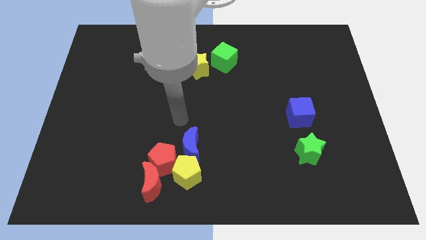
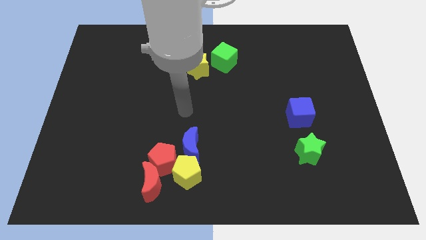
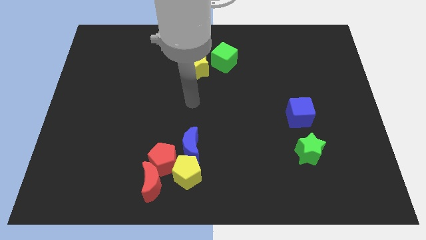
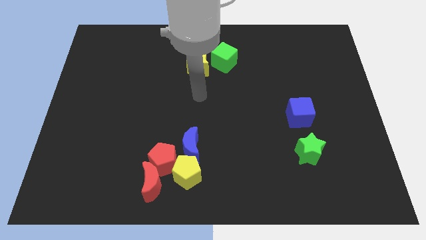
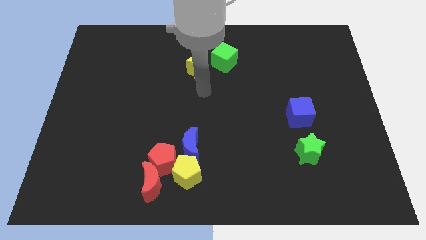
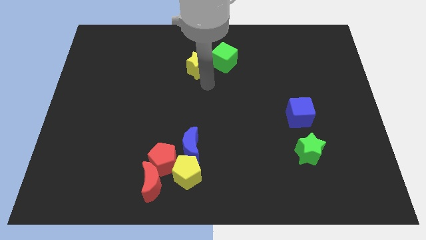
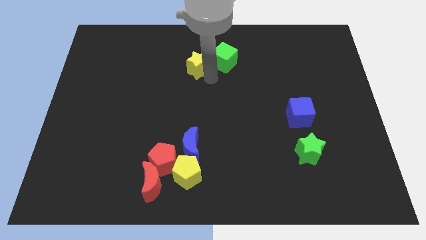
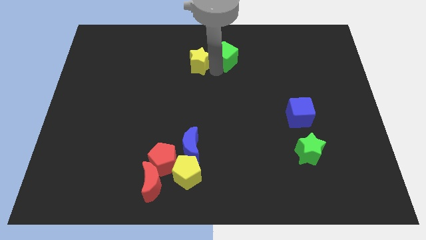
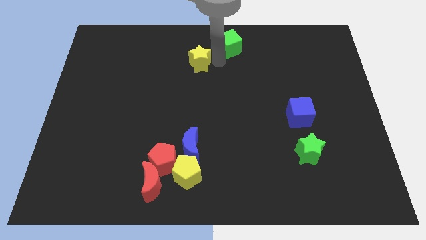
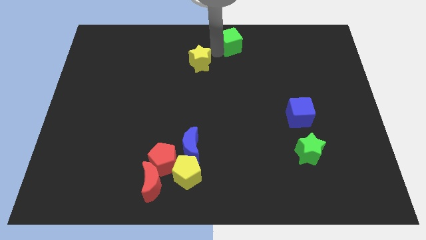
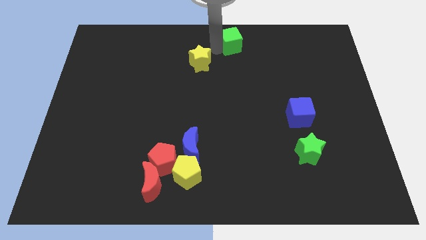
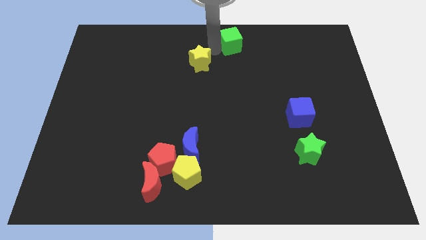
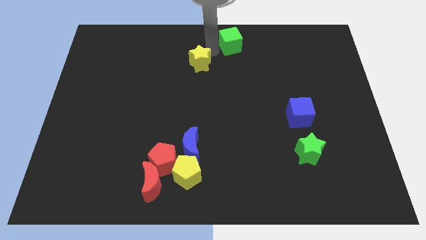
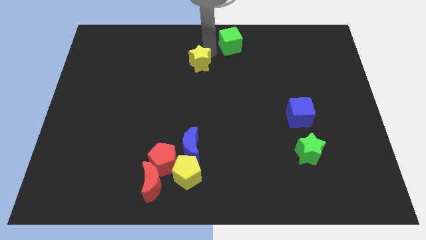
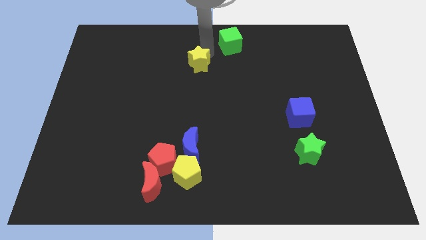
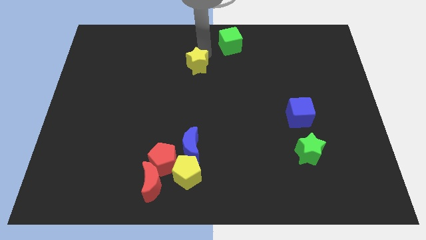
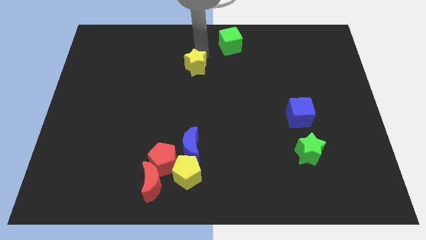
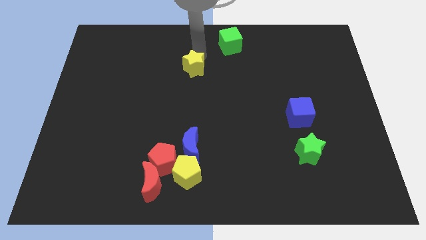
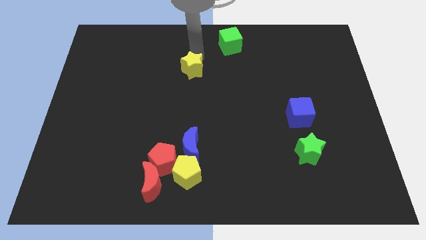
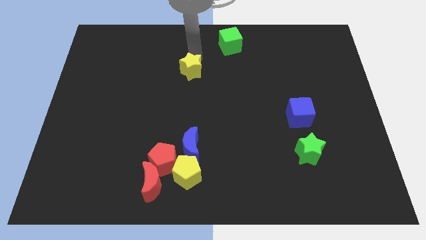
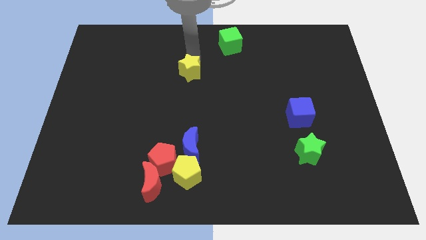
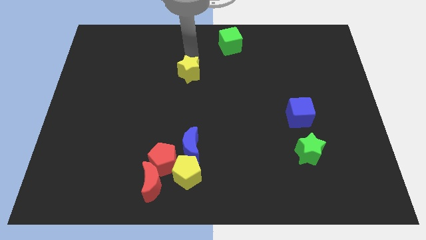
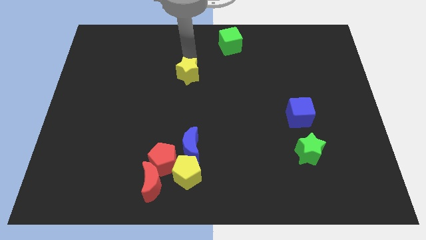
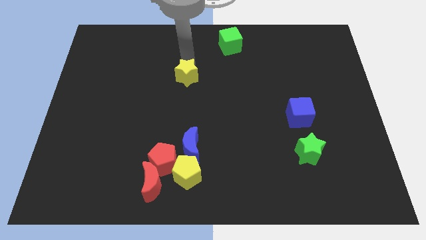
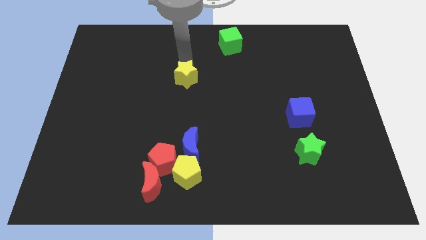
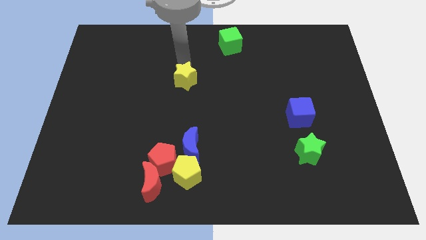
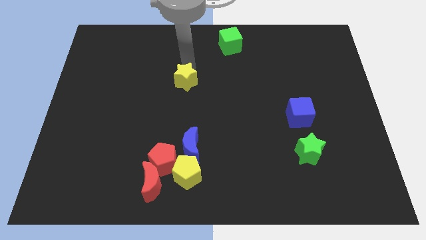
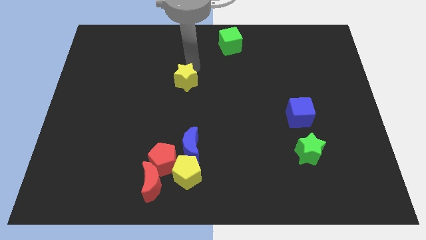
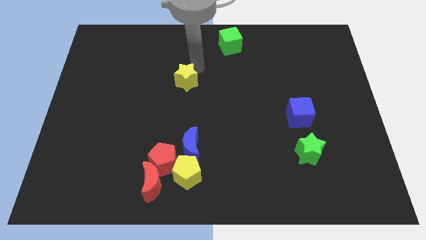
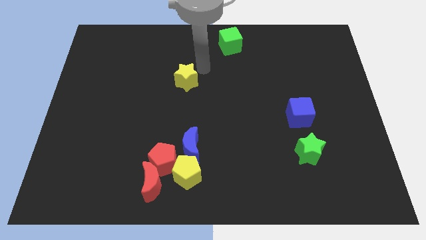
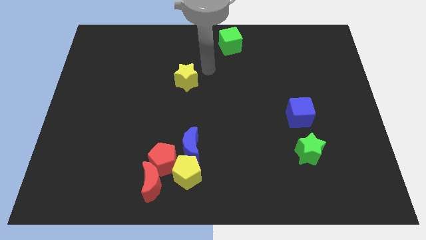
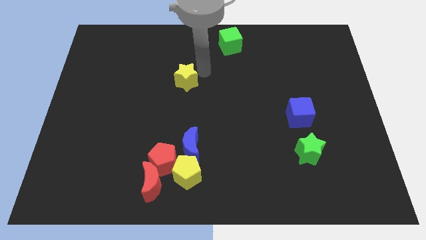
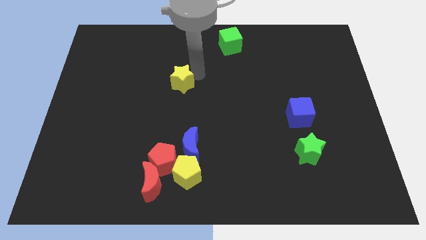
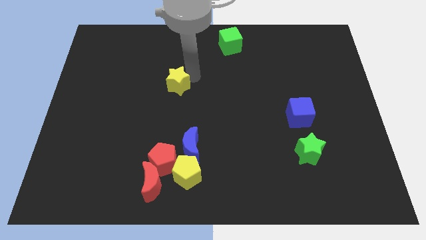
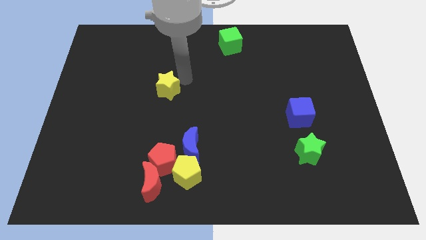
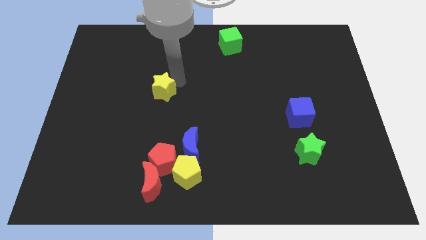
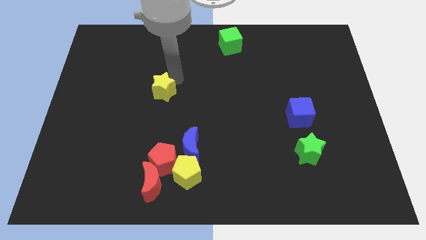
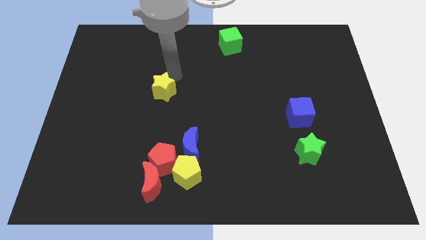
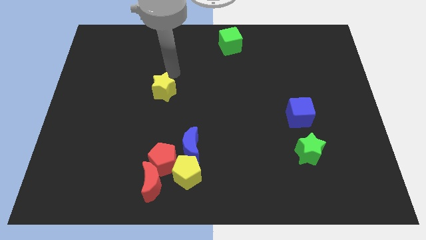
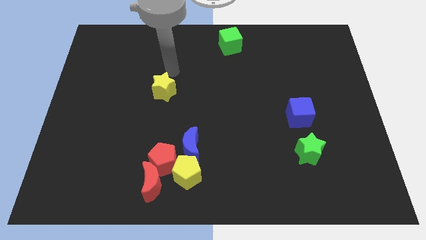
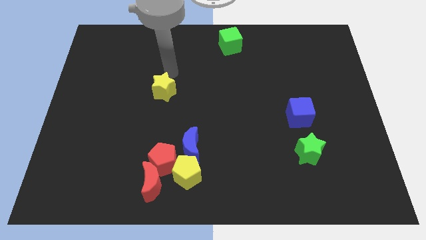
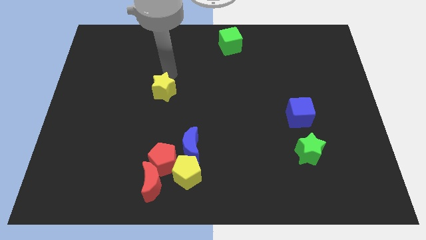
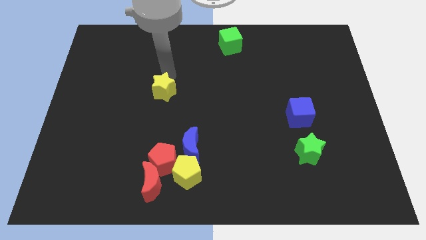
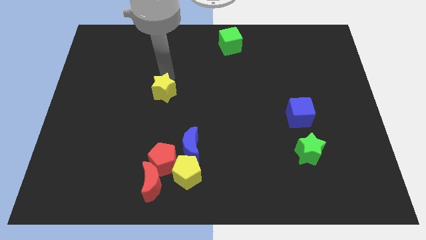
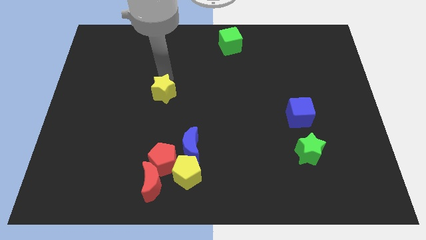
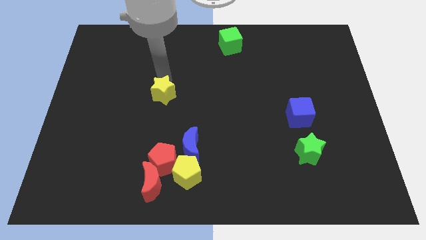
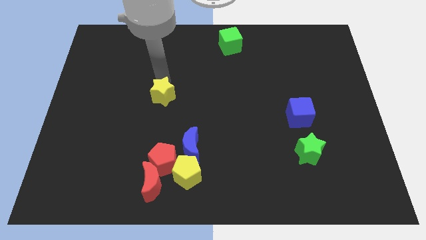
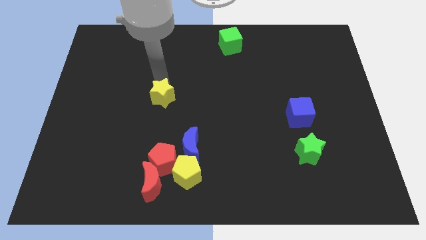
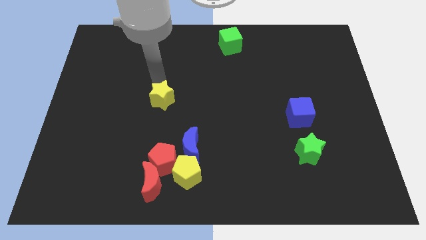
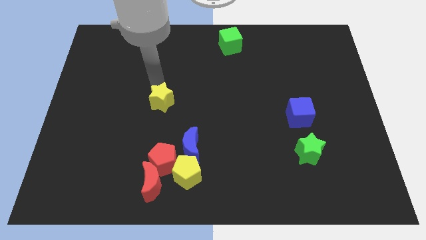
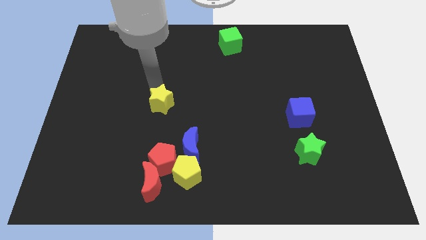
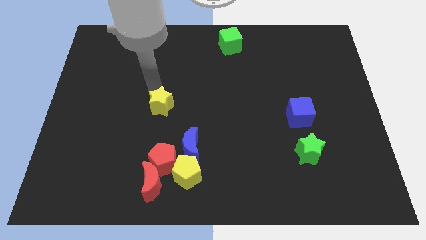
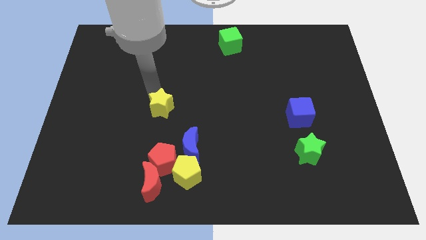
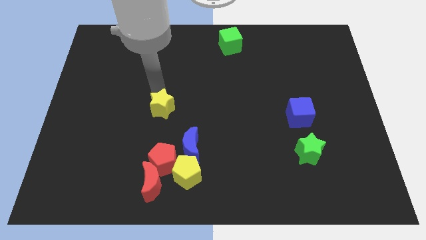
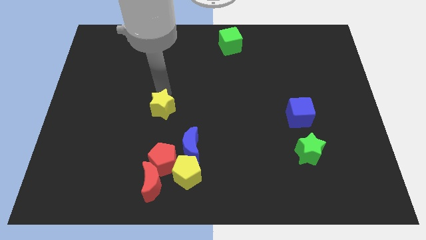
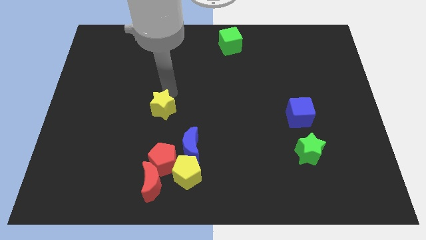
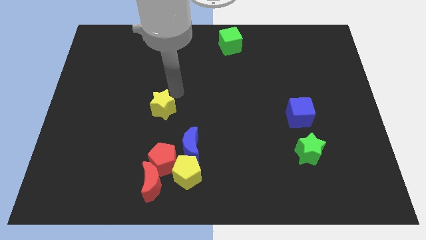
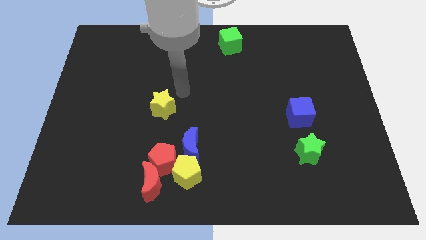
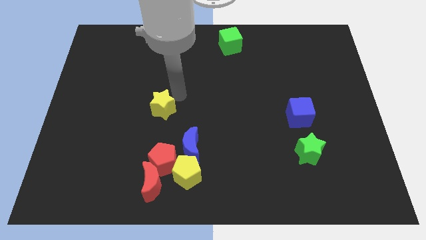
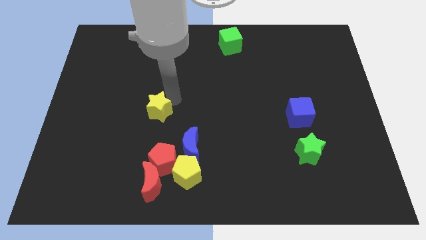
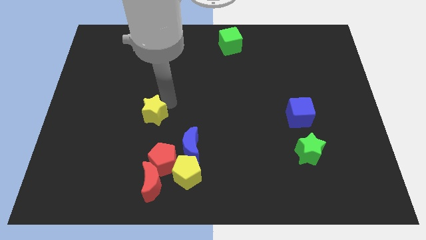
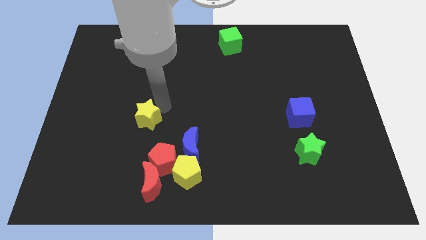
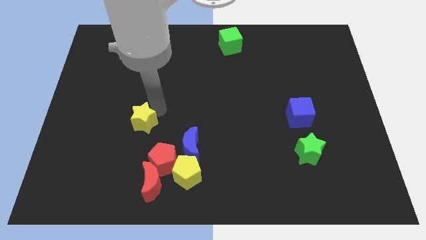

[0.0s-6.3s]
move the yellow star diagonally downwards and to the left

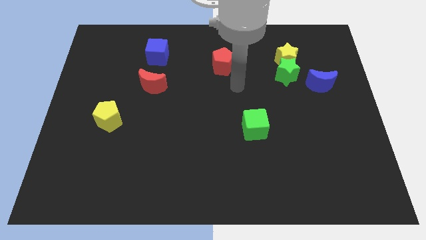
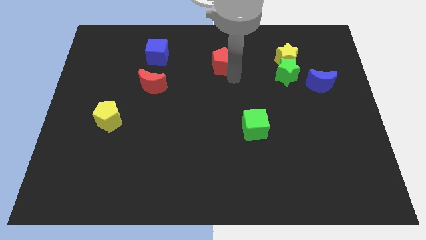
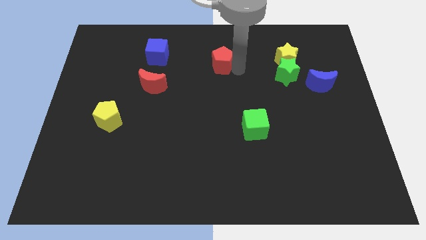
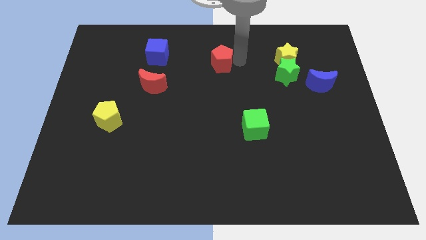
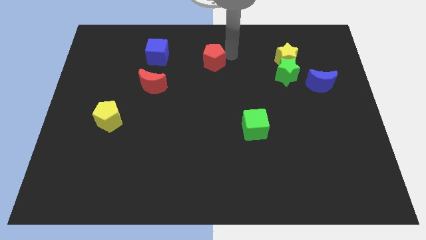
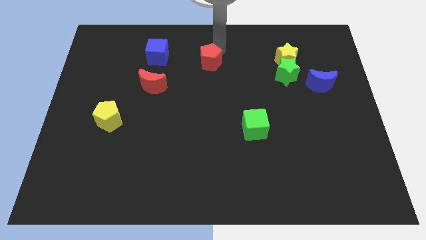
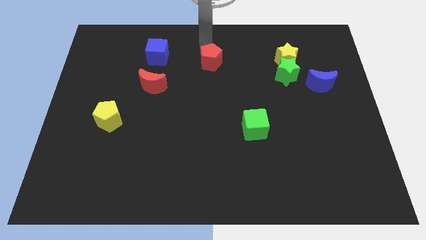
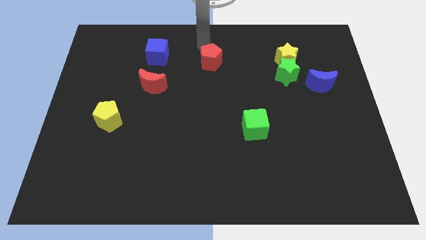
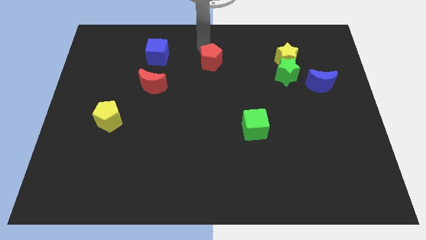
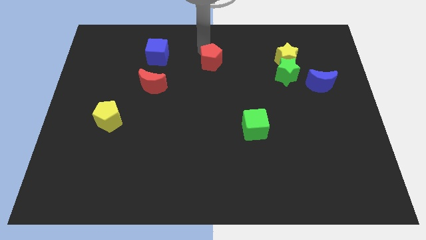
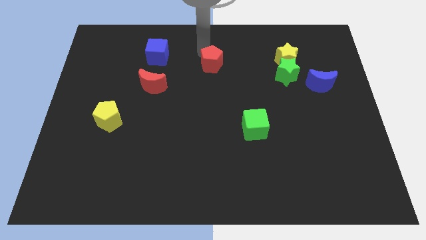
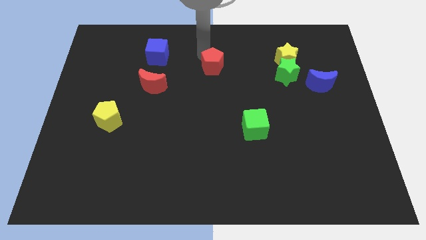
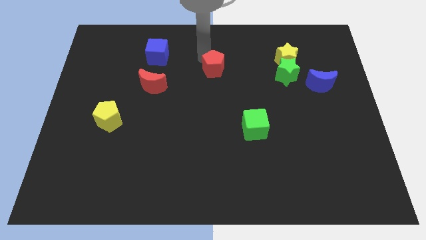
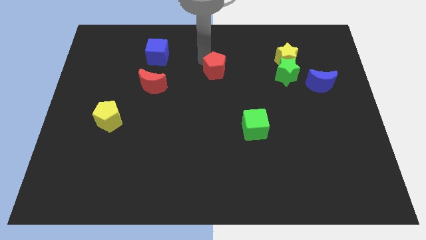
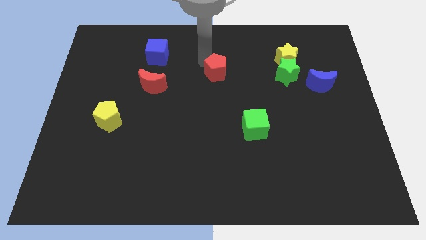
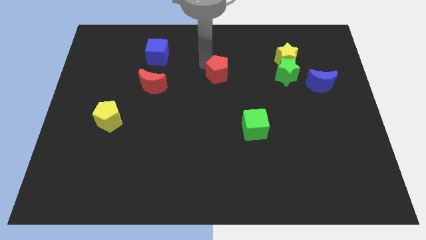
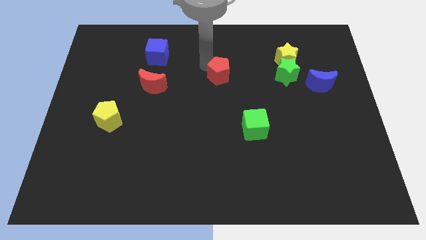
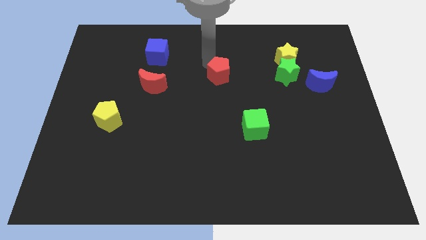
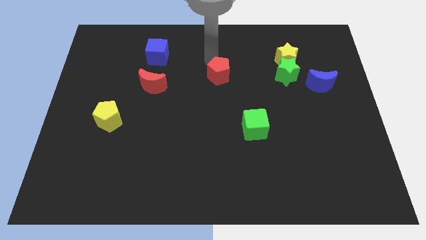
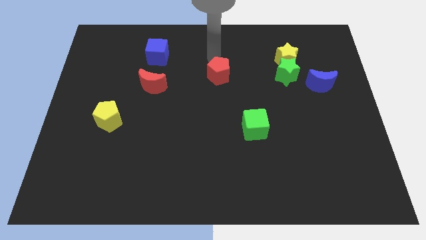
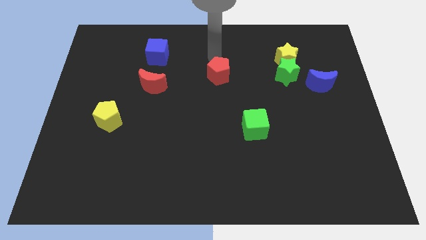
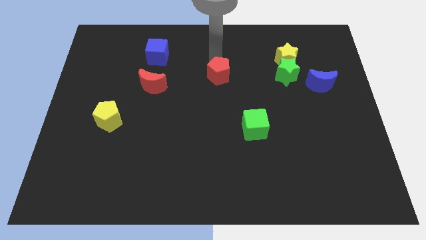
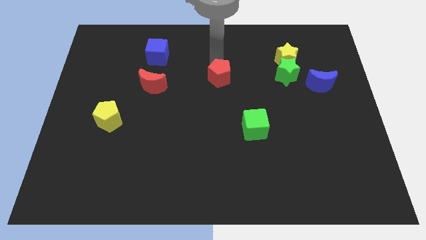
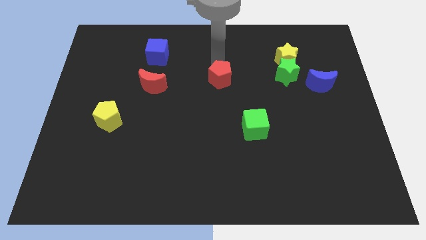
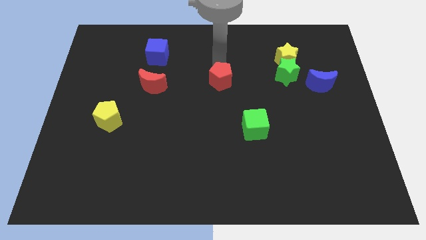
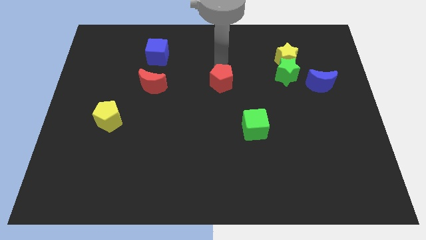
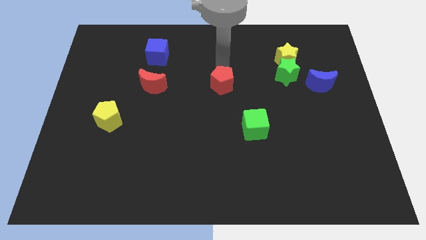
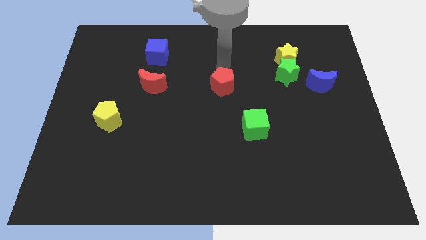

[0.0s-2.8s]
slightly slide the red pentagon down
